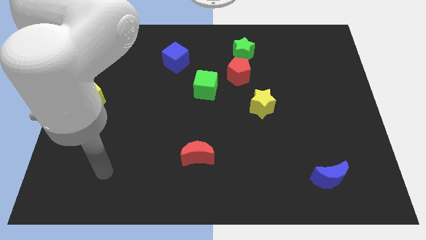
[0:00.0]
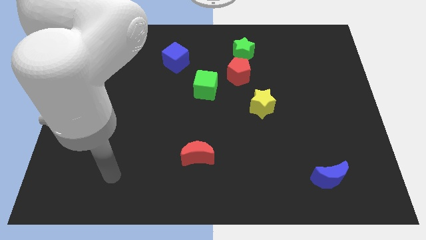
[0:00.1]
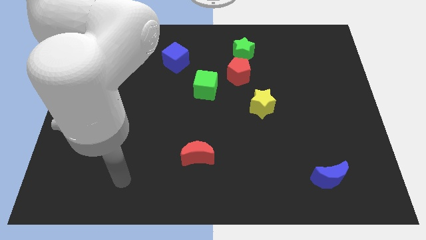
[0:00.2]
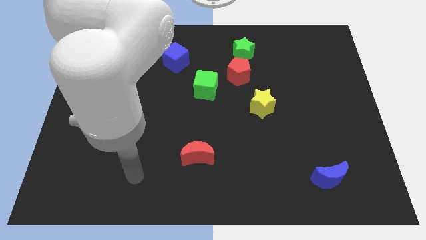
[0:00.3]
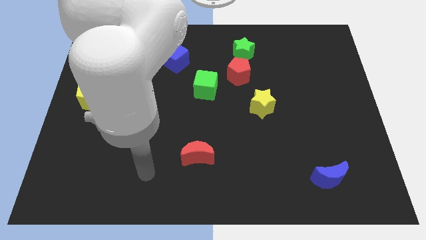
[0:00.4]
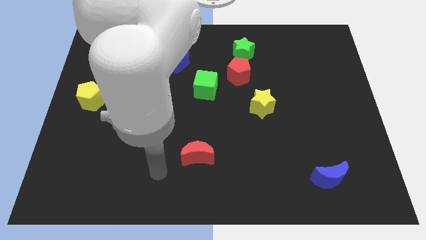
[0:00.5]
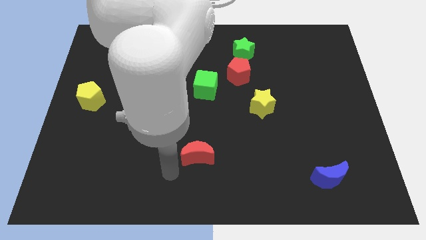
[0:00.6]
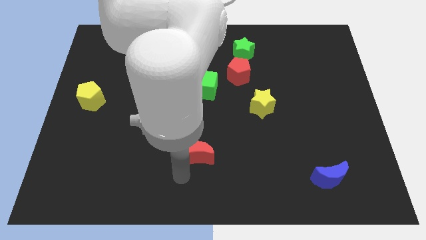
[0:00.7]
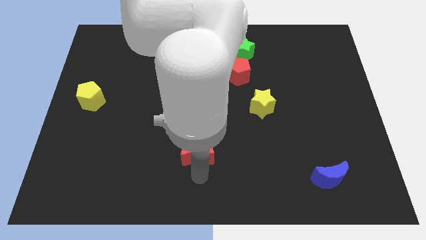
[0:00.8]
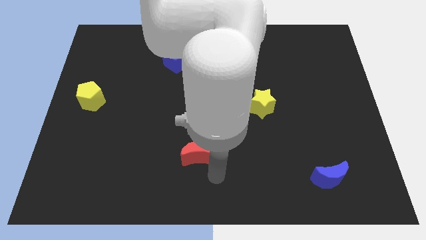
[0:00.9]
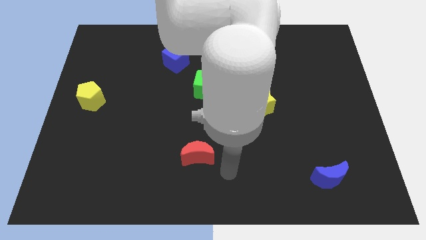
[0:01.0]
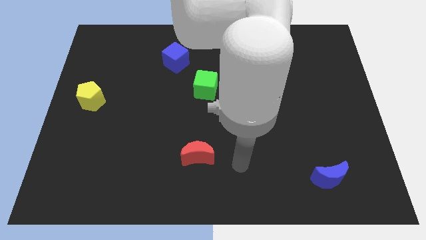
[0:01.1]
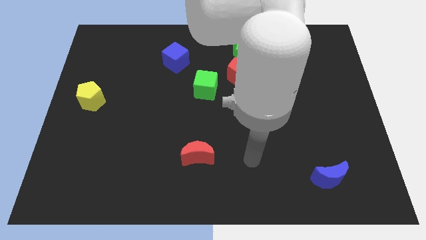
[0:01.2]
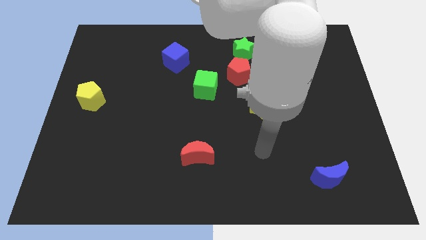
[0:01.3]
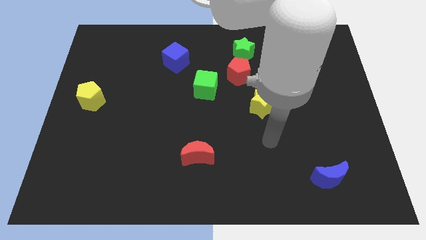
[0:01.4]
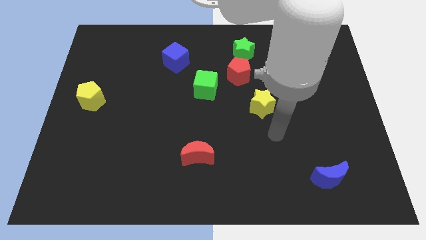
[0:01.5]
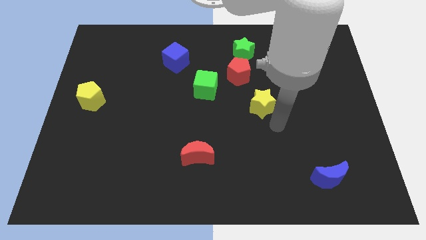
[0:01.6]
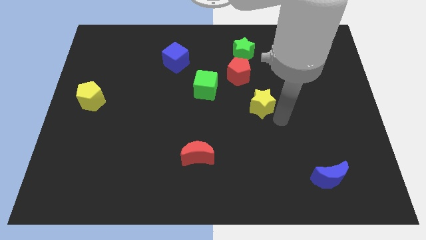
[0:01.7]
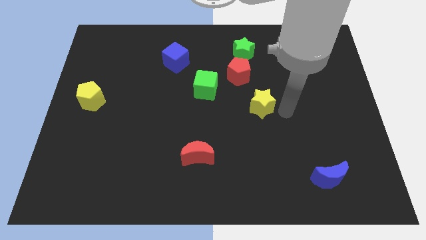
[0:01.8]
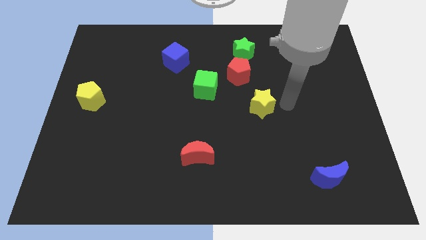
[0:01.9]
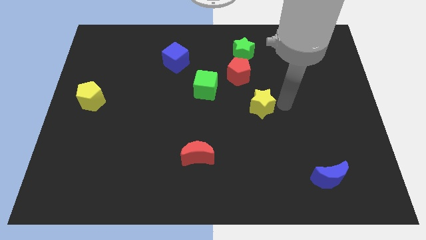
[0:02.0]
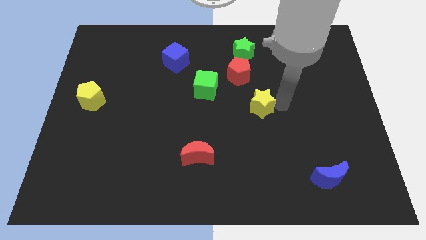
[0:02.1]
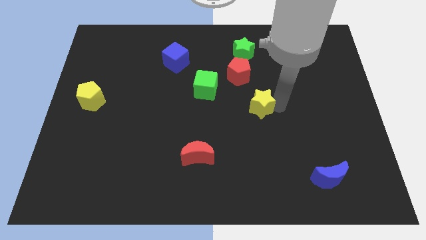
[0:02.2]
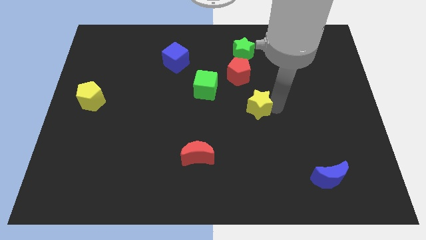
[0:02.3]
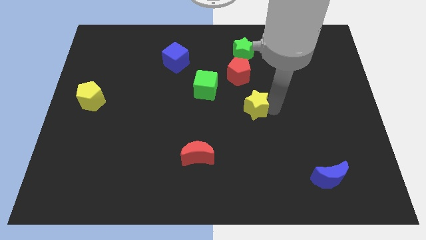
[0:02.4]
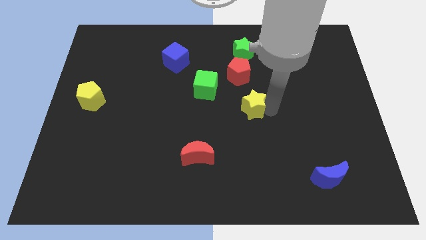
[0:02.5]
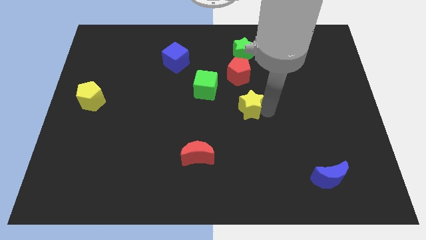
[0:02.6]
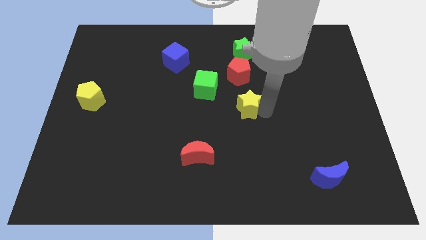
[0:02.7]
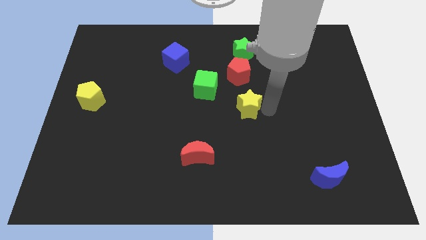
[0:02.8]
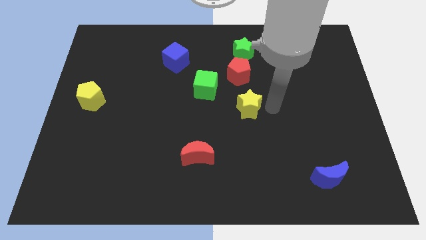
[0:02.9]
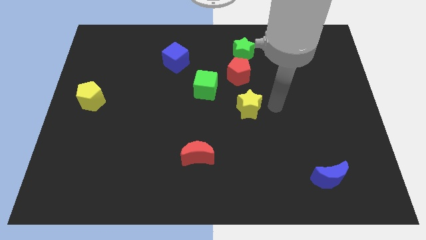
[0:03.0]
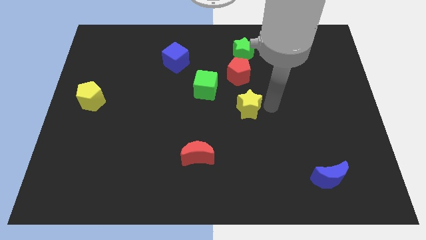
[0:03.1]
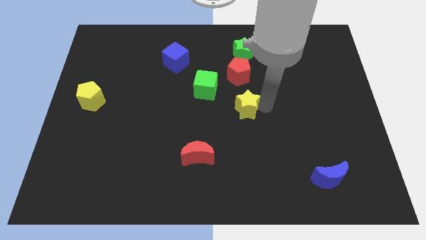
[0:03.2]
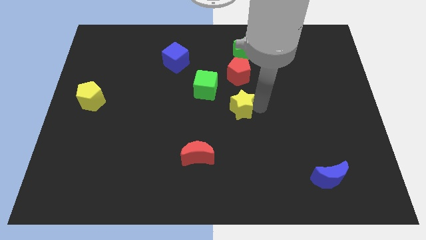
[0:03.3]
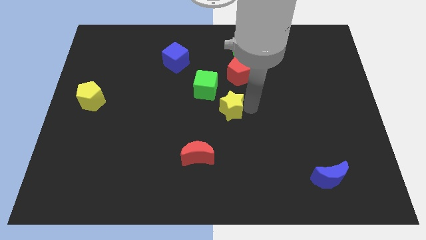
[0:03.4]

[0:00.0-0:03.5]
move the yellow star slightly left

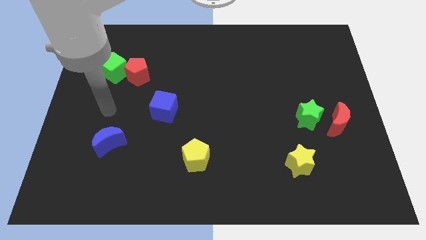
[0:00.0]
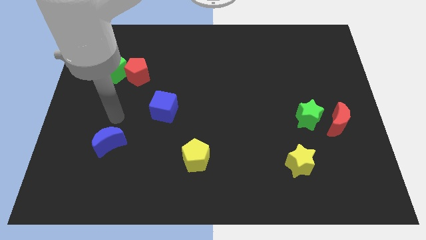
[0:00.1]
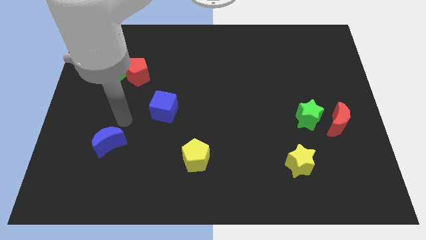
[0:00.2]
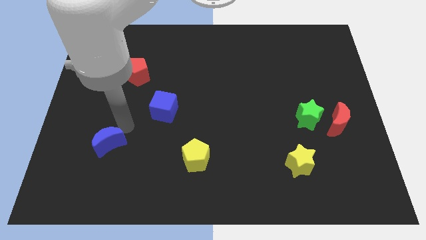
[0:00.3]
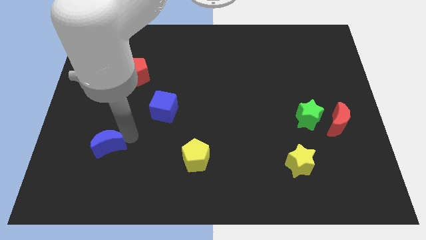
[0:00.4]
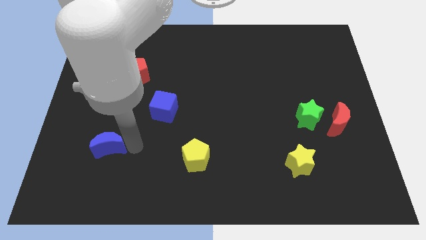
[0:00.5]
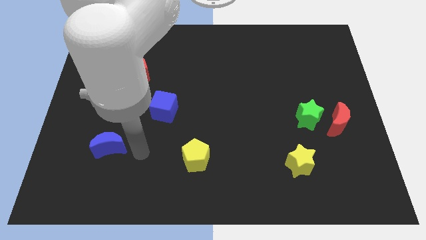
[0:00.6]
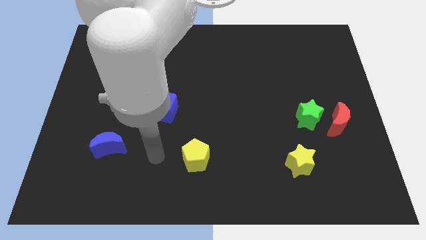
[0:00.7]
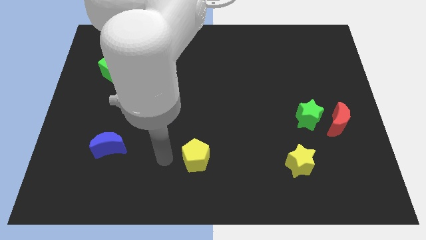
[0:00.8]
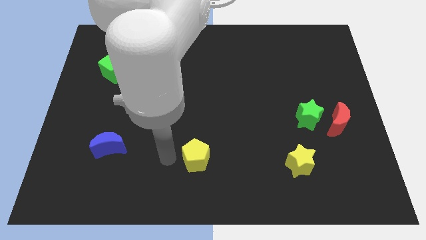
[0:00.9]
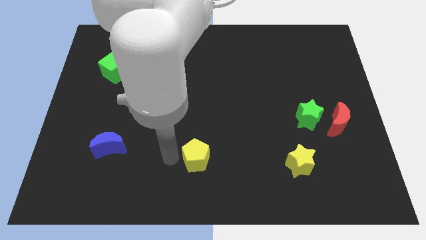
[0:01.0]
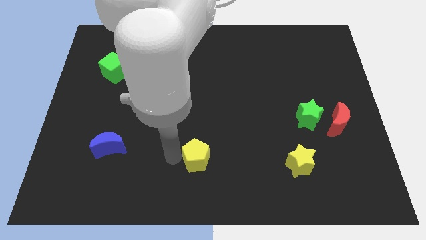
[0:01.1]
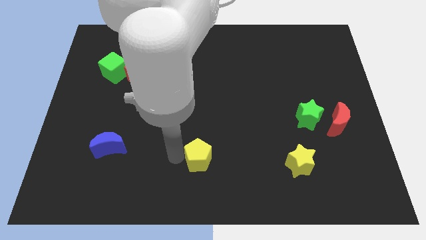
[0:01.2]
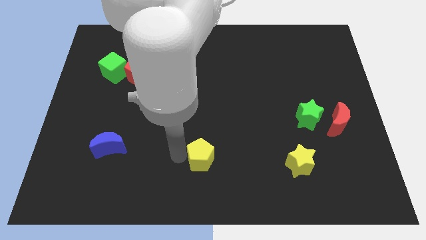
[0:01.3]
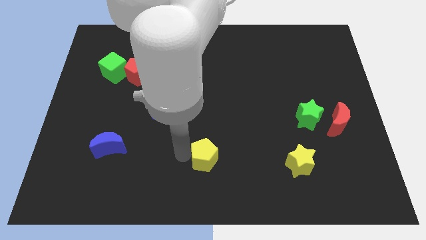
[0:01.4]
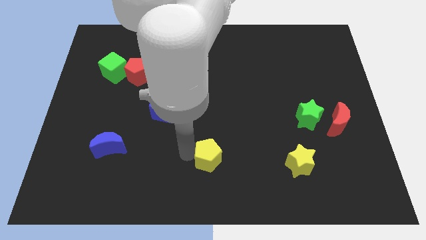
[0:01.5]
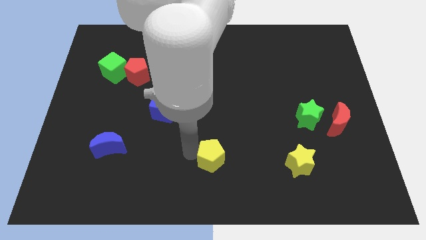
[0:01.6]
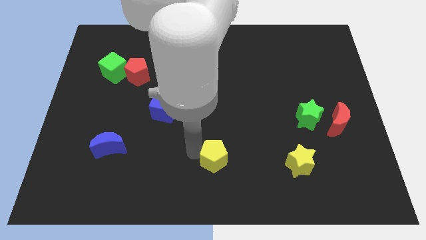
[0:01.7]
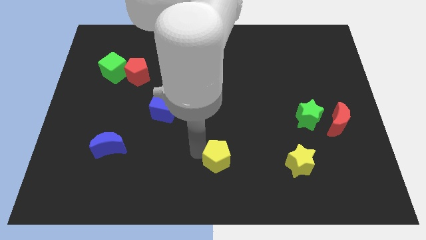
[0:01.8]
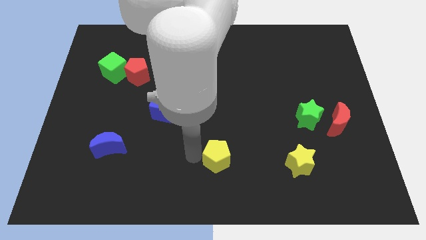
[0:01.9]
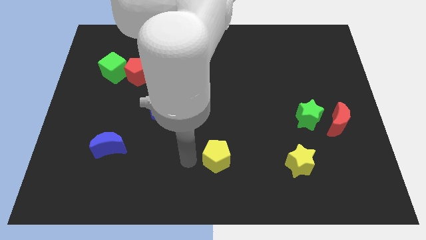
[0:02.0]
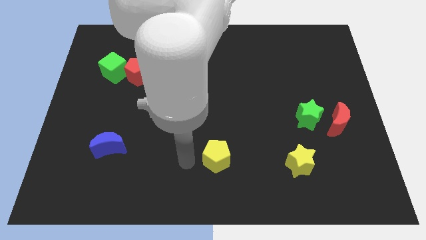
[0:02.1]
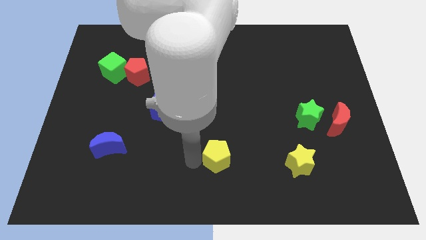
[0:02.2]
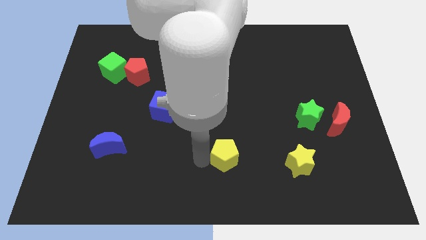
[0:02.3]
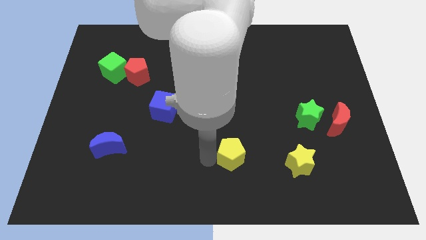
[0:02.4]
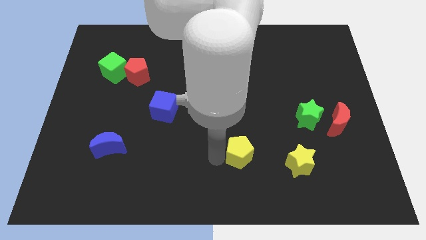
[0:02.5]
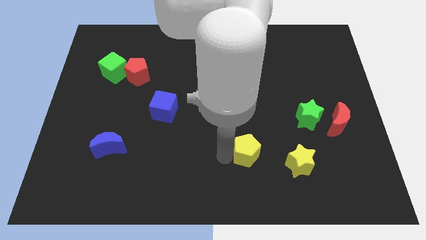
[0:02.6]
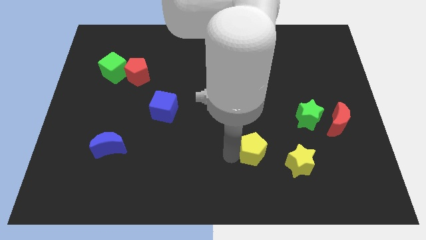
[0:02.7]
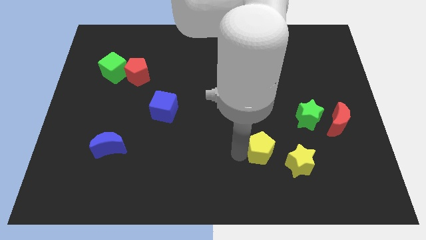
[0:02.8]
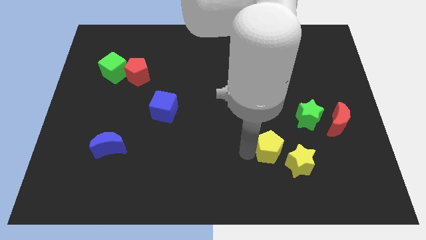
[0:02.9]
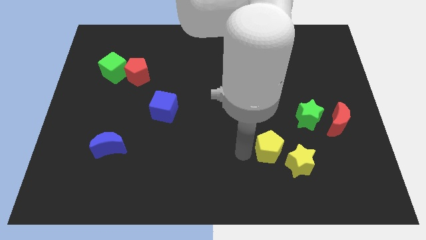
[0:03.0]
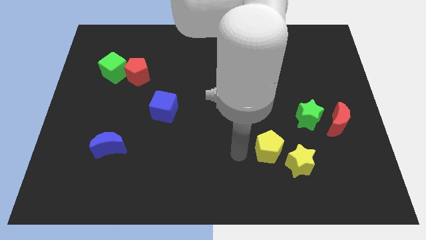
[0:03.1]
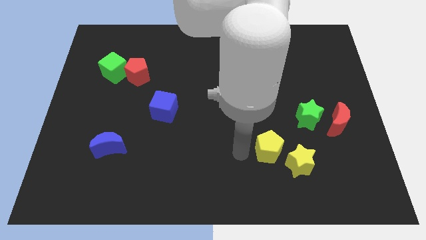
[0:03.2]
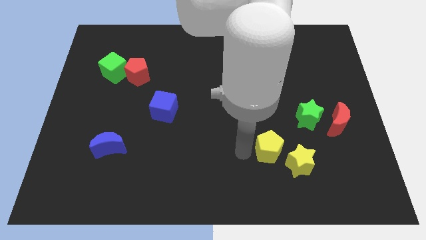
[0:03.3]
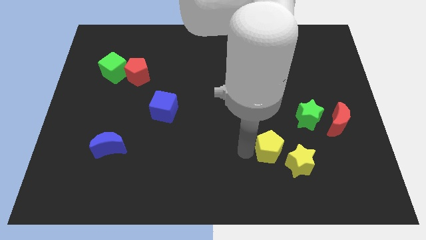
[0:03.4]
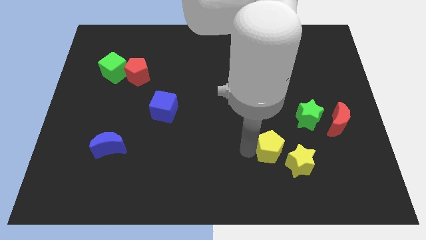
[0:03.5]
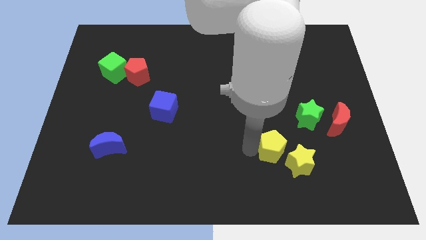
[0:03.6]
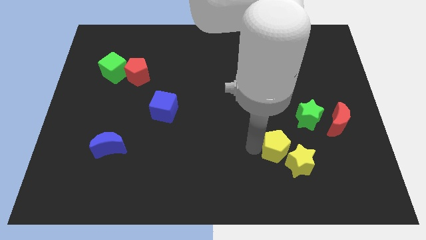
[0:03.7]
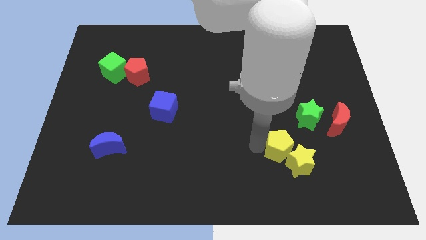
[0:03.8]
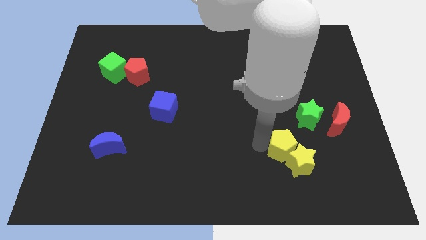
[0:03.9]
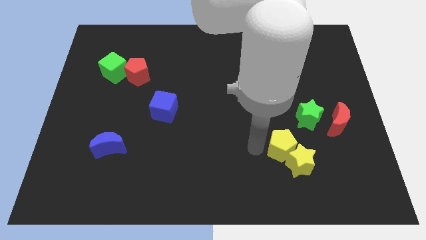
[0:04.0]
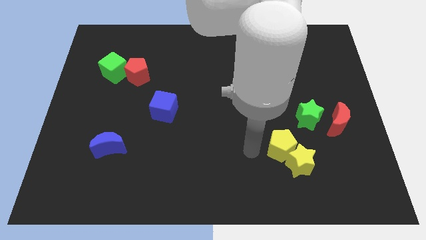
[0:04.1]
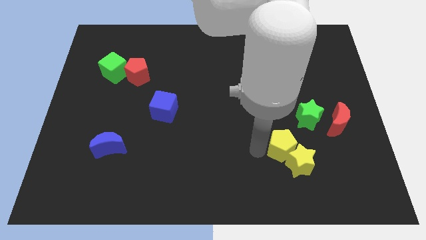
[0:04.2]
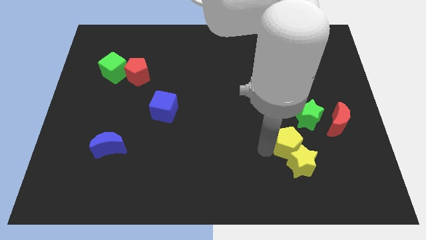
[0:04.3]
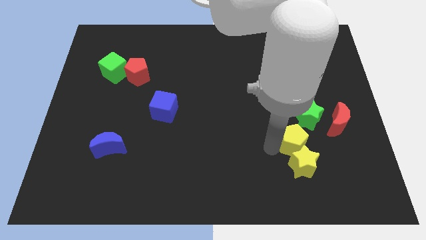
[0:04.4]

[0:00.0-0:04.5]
push the yellow pentagon to the right
